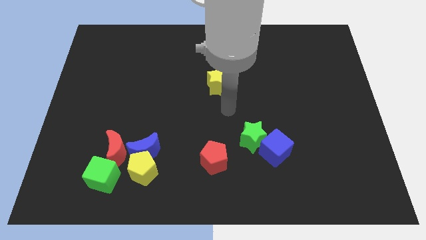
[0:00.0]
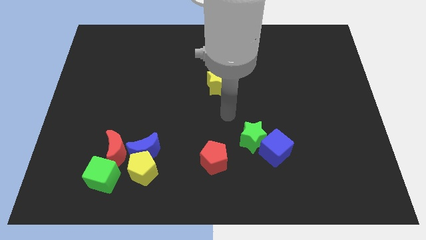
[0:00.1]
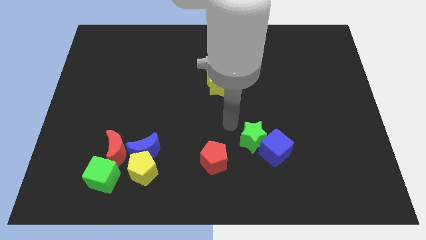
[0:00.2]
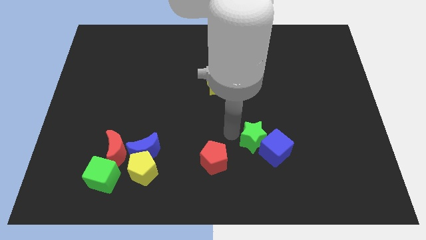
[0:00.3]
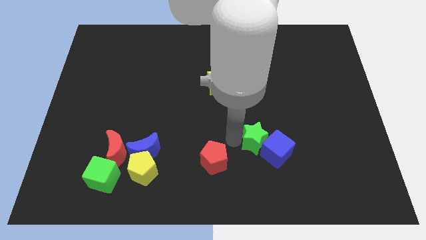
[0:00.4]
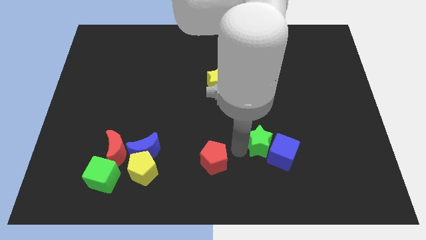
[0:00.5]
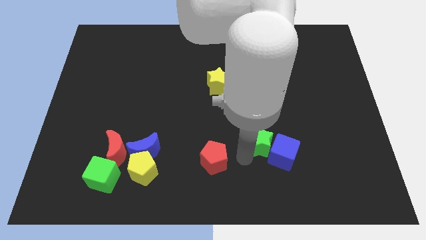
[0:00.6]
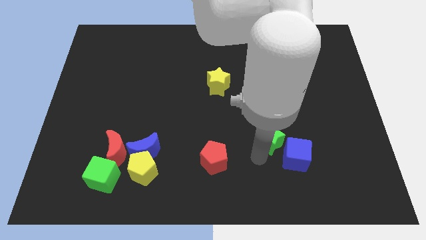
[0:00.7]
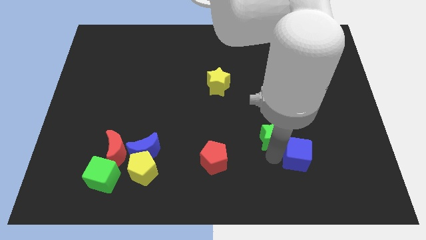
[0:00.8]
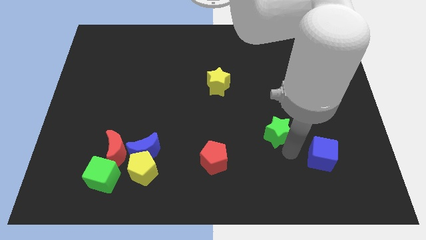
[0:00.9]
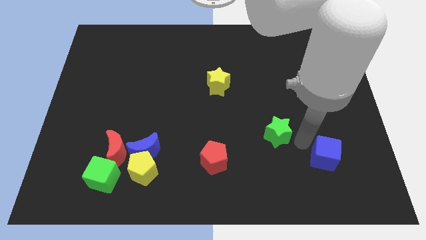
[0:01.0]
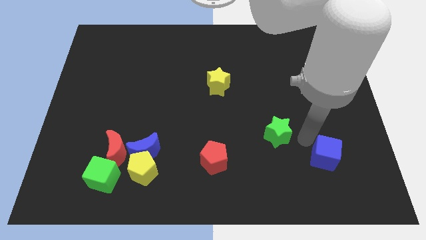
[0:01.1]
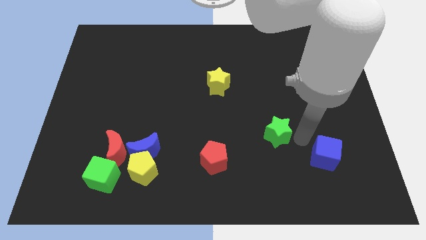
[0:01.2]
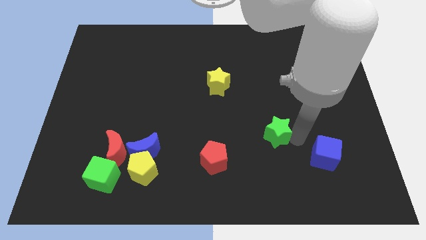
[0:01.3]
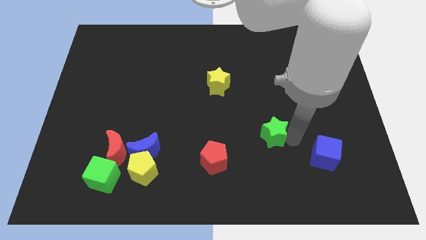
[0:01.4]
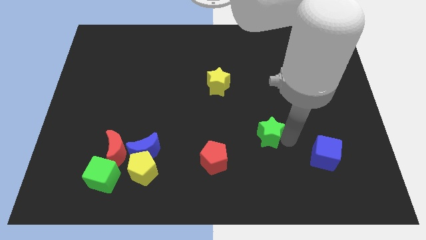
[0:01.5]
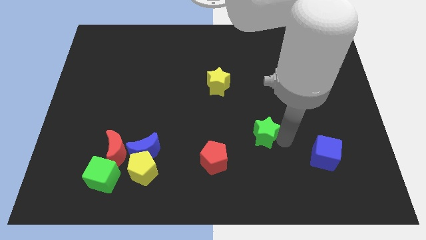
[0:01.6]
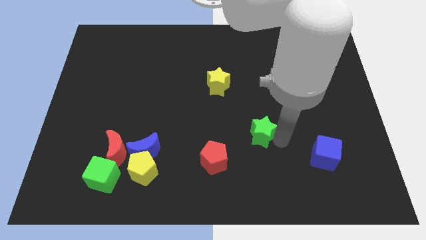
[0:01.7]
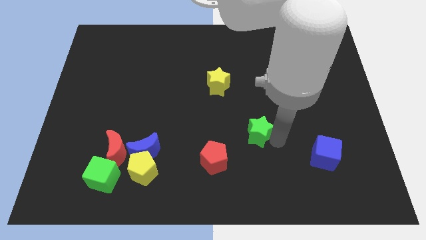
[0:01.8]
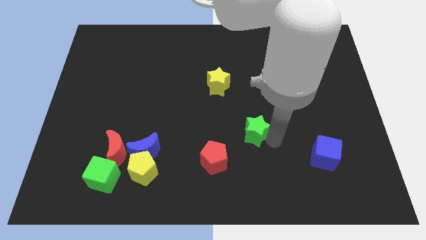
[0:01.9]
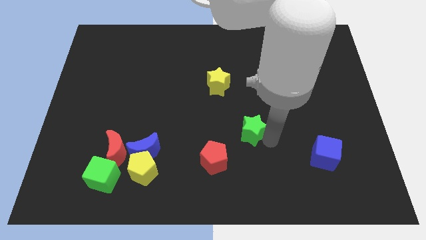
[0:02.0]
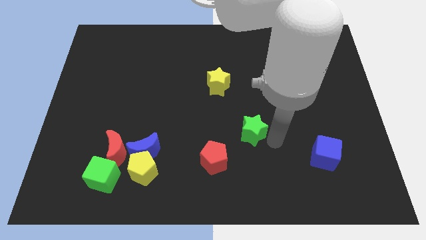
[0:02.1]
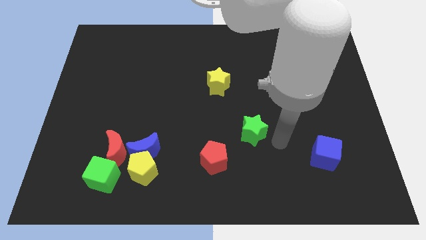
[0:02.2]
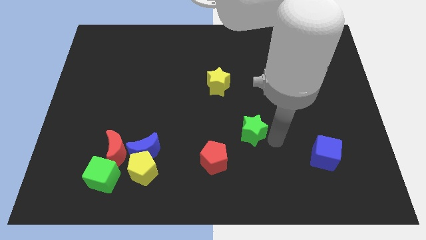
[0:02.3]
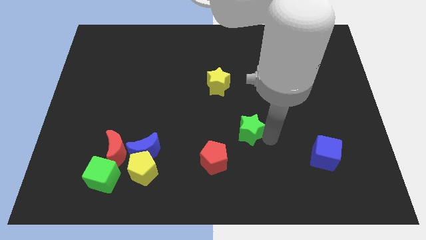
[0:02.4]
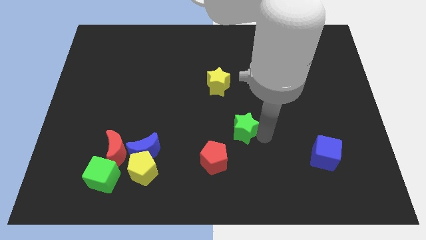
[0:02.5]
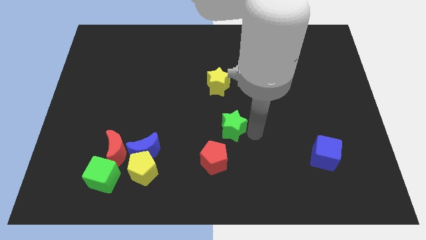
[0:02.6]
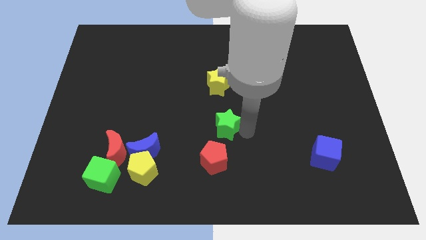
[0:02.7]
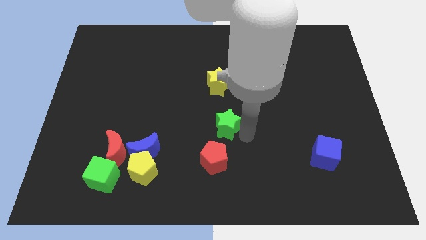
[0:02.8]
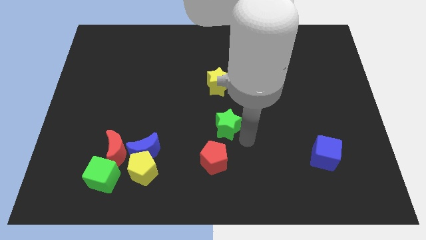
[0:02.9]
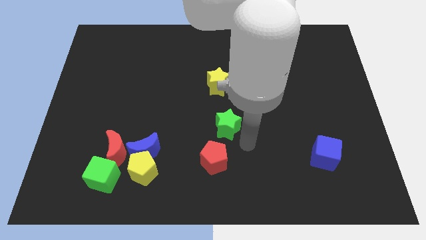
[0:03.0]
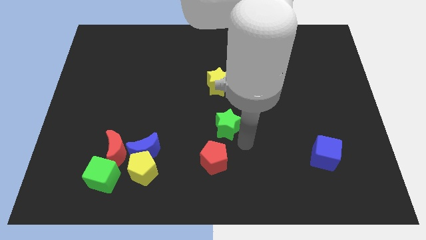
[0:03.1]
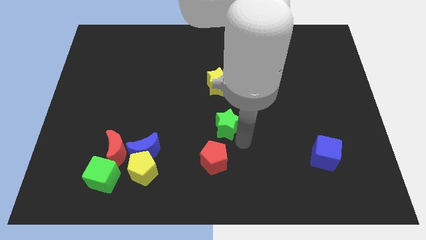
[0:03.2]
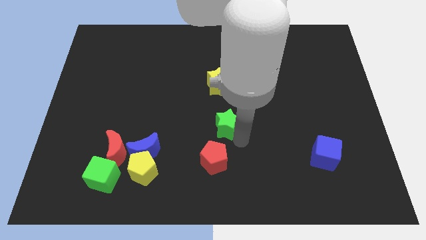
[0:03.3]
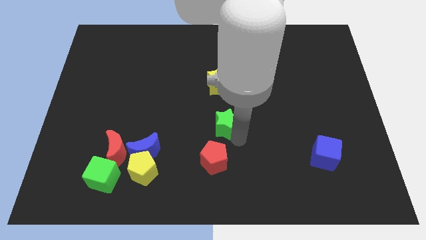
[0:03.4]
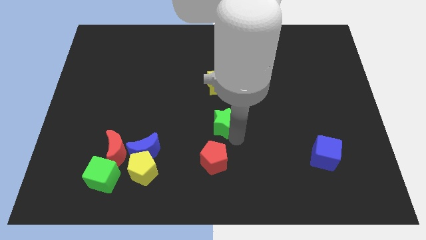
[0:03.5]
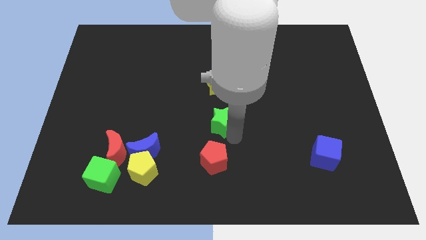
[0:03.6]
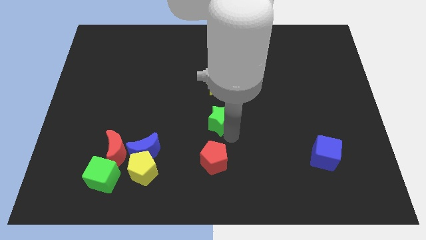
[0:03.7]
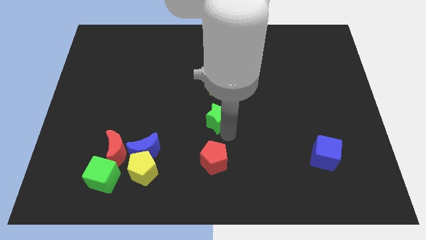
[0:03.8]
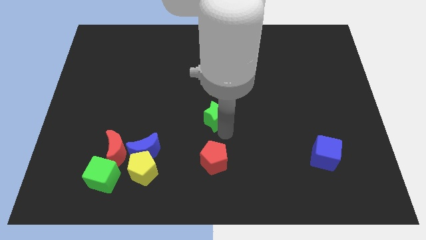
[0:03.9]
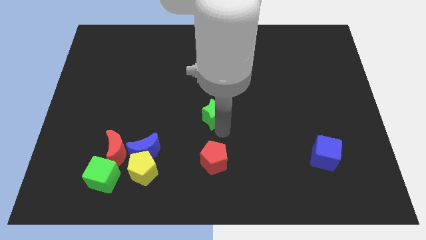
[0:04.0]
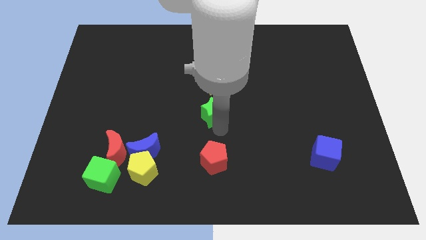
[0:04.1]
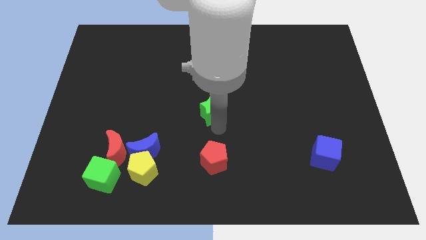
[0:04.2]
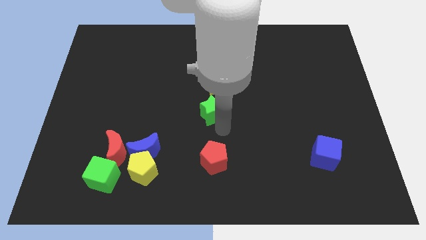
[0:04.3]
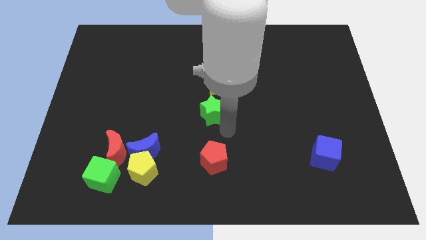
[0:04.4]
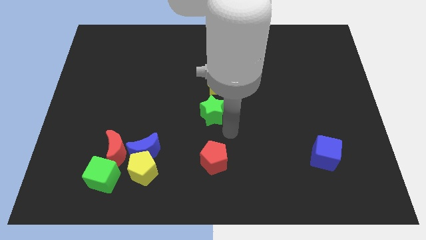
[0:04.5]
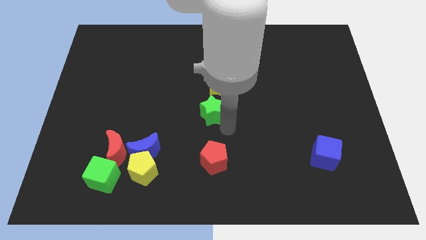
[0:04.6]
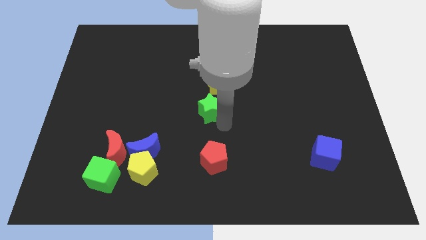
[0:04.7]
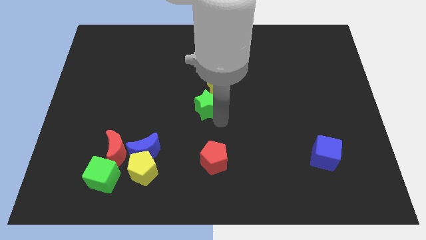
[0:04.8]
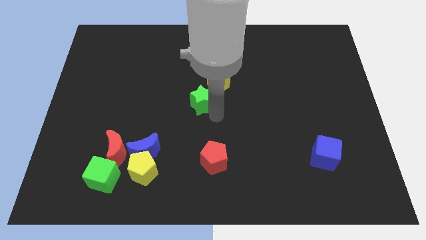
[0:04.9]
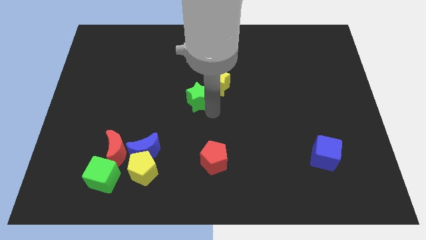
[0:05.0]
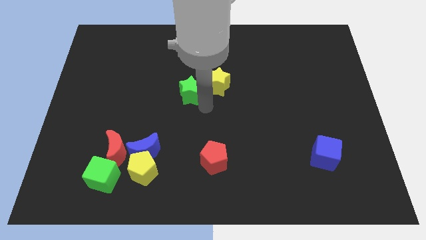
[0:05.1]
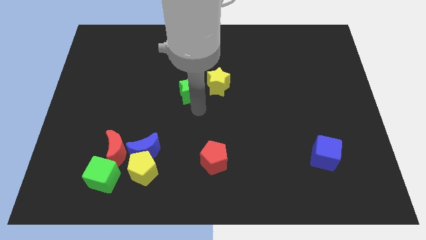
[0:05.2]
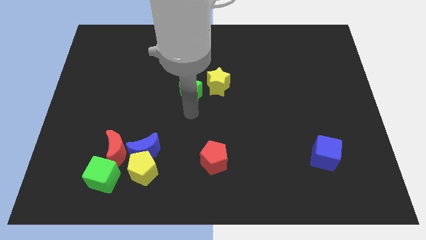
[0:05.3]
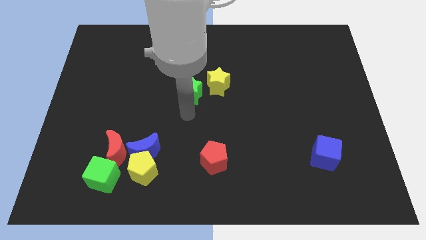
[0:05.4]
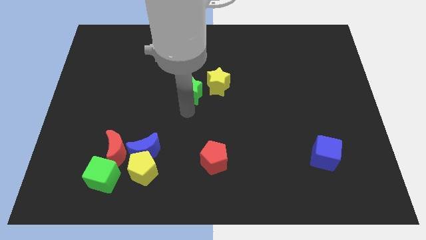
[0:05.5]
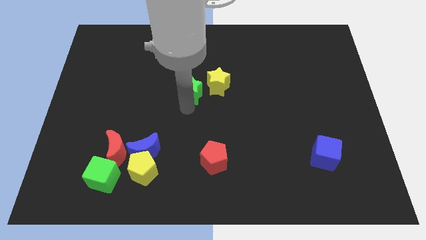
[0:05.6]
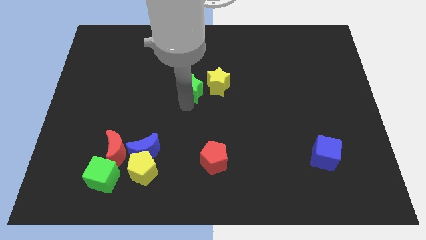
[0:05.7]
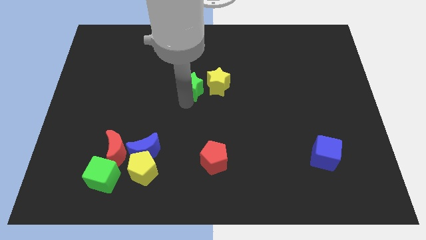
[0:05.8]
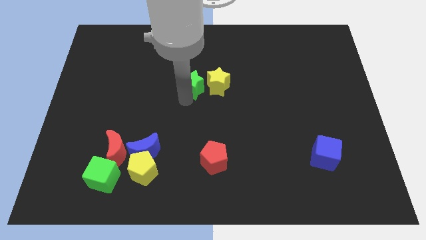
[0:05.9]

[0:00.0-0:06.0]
move the green star to the top left of the yellow star

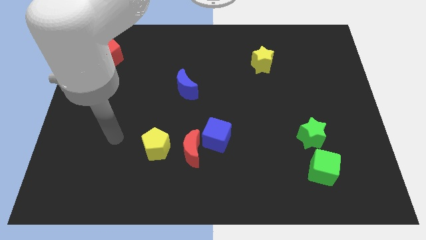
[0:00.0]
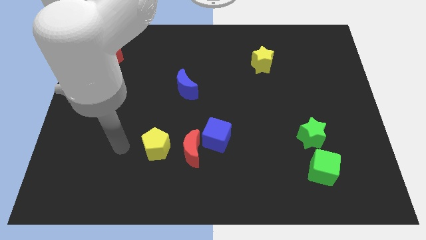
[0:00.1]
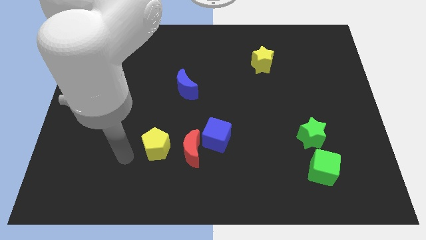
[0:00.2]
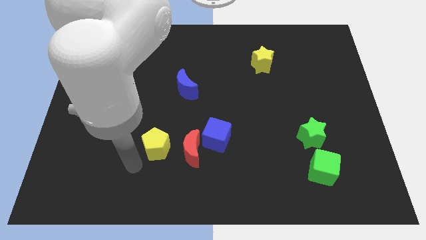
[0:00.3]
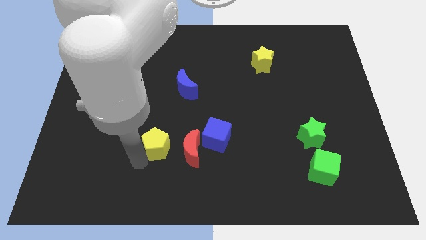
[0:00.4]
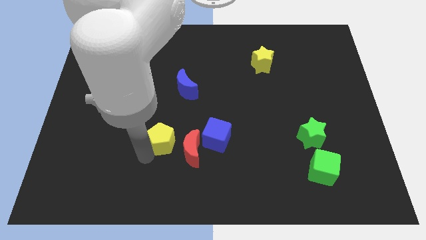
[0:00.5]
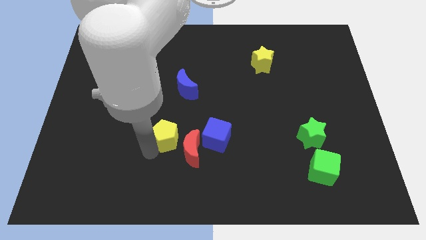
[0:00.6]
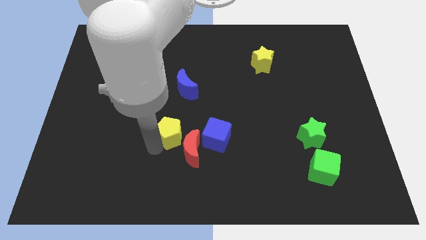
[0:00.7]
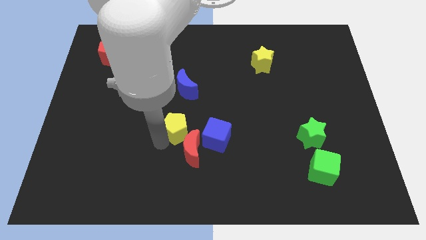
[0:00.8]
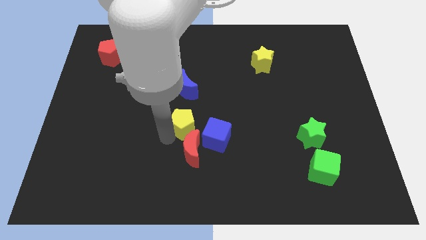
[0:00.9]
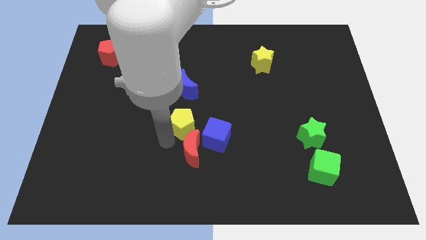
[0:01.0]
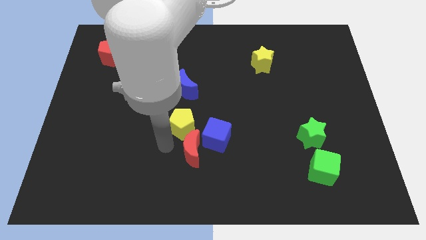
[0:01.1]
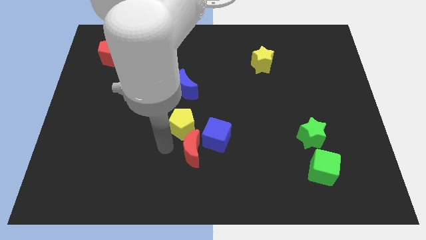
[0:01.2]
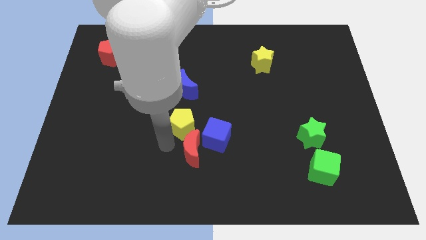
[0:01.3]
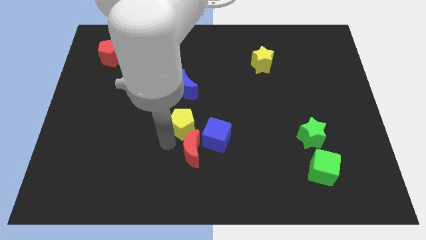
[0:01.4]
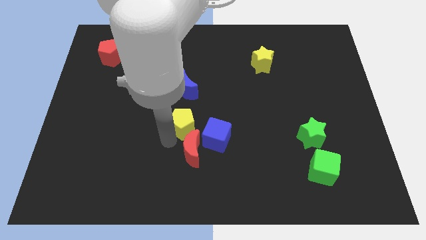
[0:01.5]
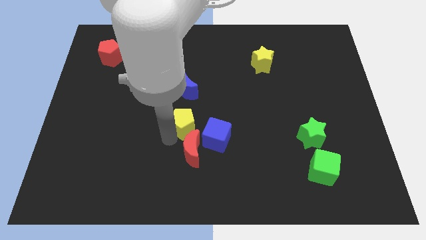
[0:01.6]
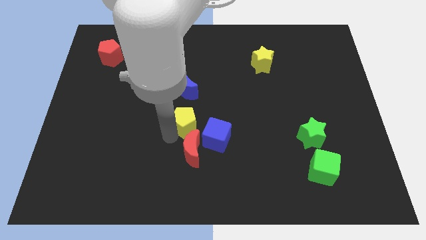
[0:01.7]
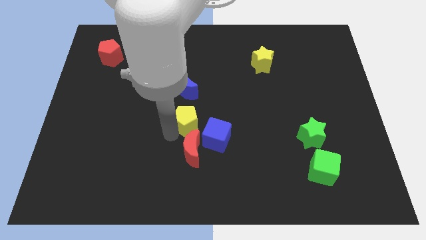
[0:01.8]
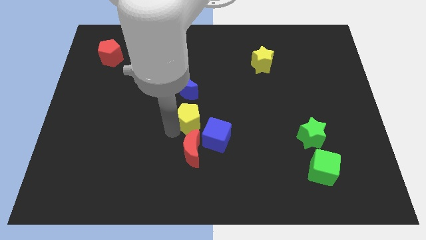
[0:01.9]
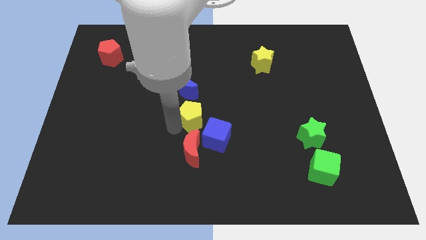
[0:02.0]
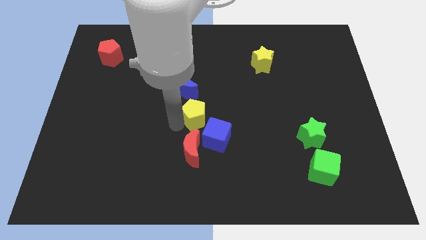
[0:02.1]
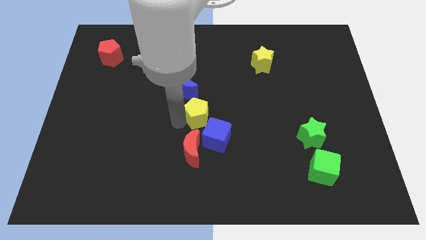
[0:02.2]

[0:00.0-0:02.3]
push the yellow pentagon above the blue cube
